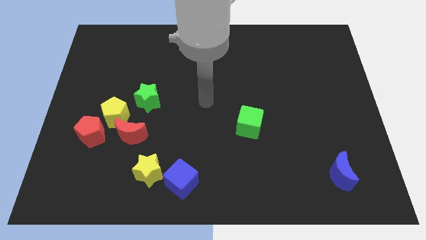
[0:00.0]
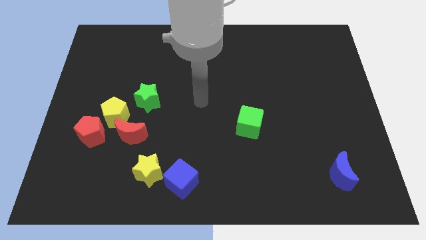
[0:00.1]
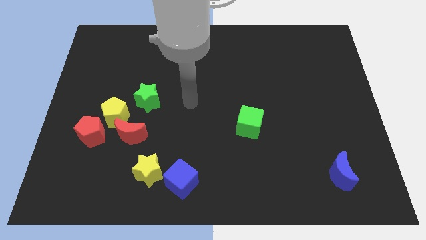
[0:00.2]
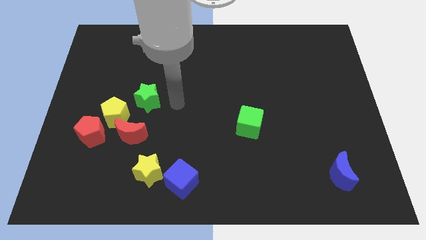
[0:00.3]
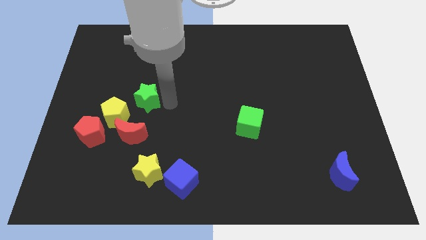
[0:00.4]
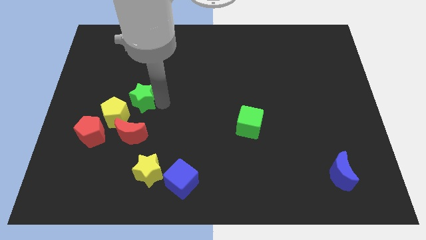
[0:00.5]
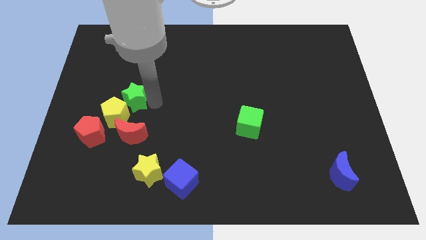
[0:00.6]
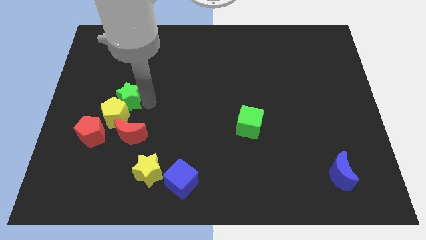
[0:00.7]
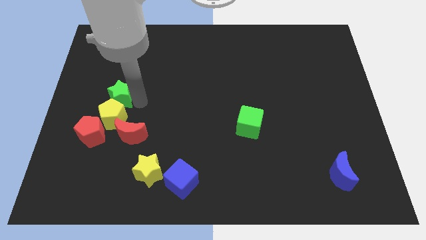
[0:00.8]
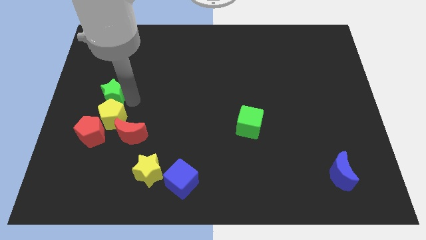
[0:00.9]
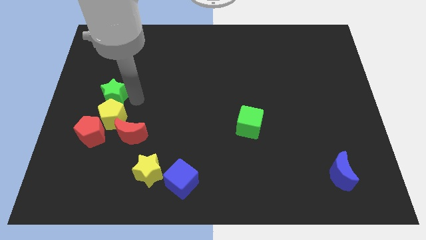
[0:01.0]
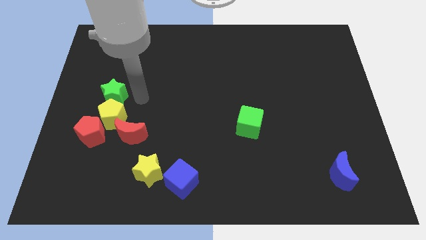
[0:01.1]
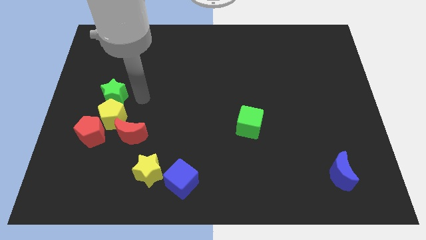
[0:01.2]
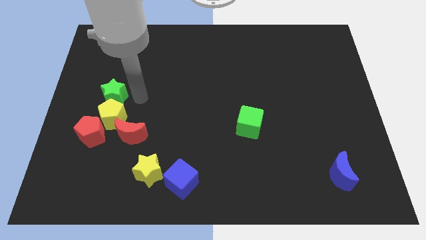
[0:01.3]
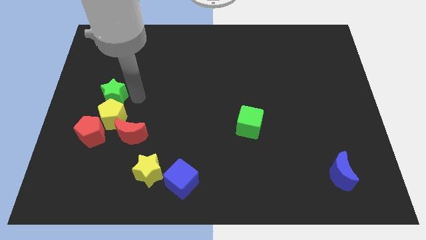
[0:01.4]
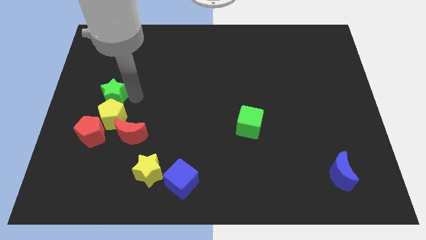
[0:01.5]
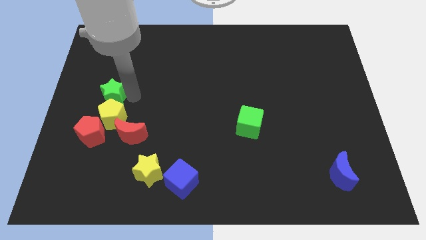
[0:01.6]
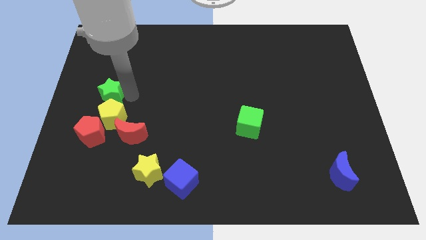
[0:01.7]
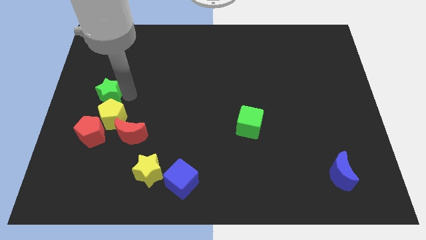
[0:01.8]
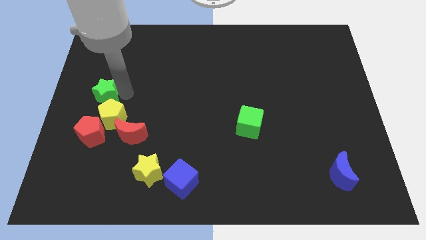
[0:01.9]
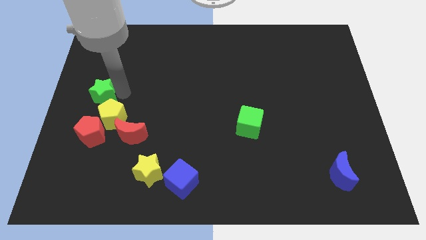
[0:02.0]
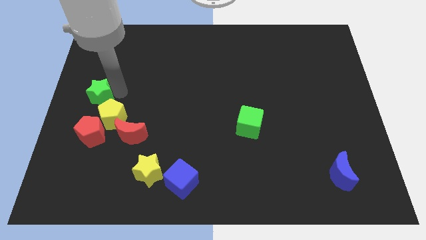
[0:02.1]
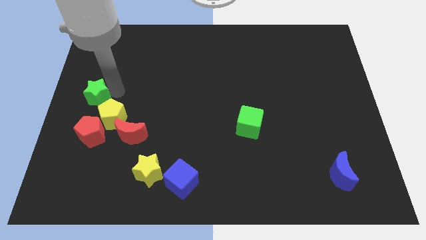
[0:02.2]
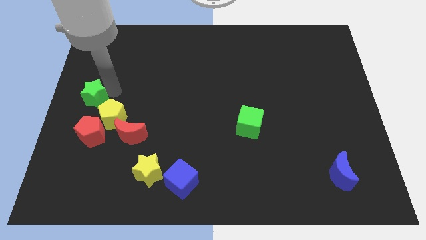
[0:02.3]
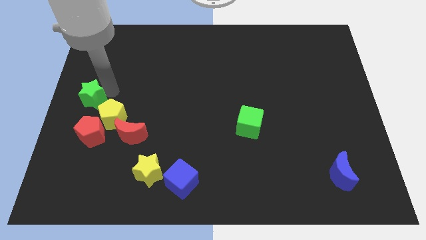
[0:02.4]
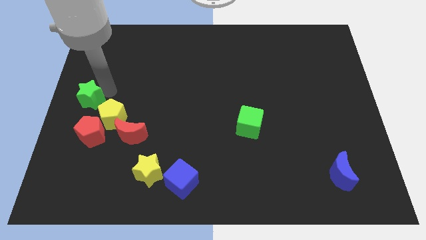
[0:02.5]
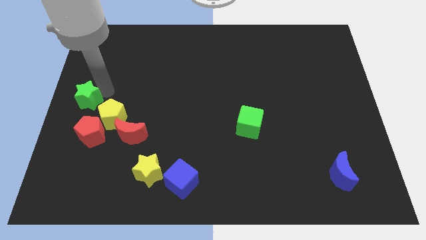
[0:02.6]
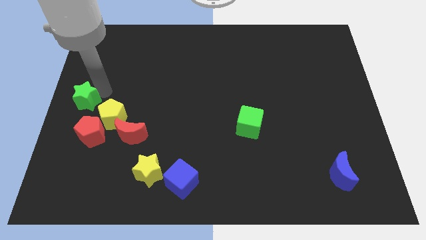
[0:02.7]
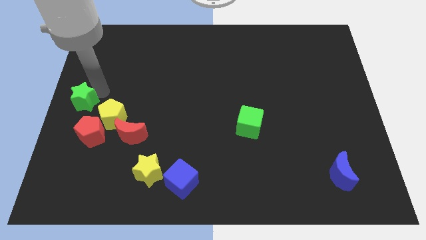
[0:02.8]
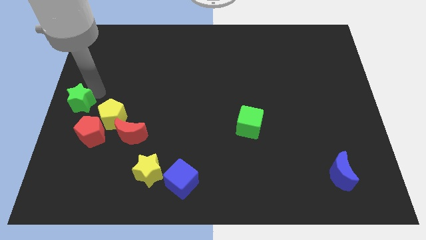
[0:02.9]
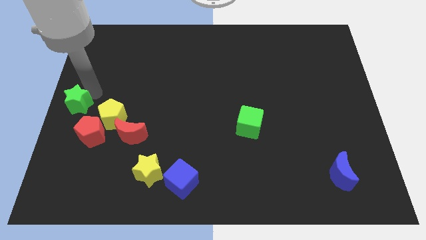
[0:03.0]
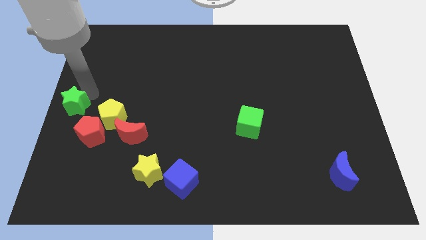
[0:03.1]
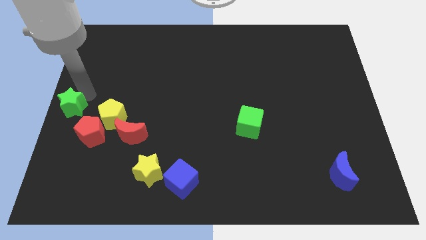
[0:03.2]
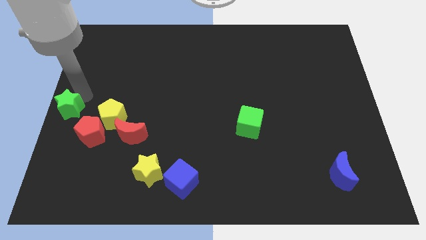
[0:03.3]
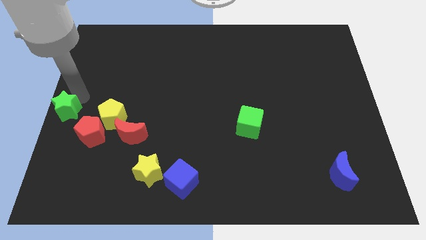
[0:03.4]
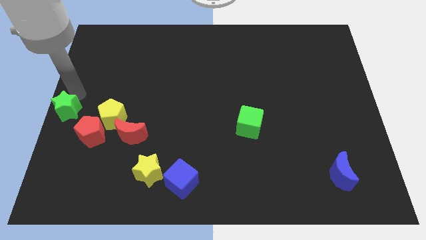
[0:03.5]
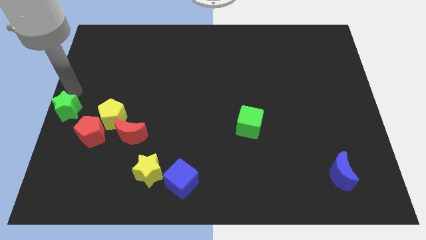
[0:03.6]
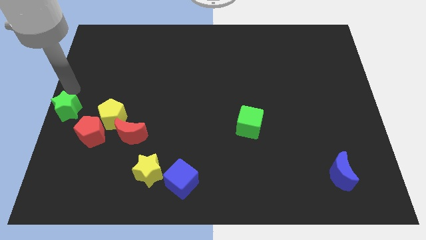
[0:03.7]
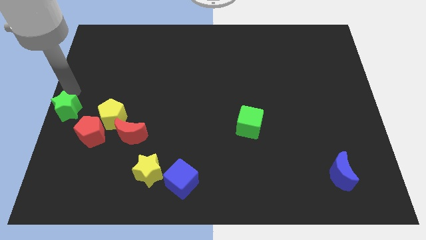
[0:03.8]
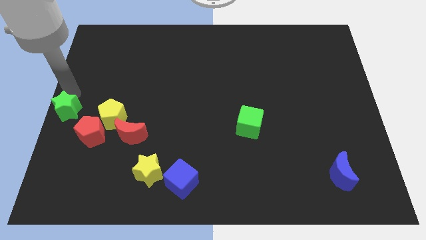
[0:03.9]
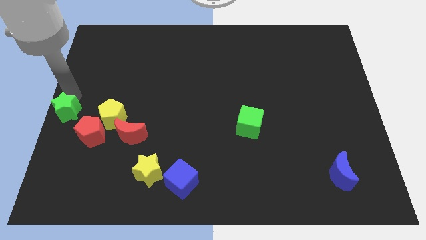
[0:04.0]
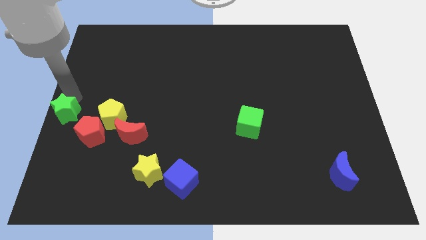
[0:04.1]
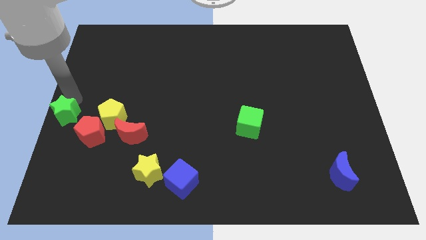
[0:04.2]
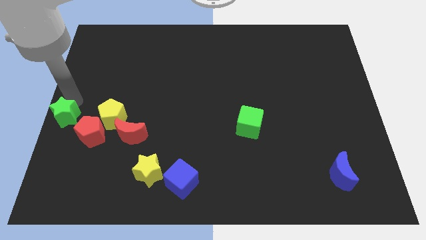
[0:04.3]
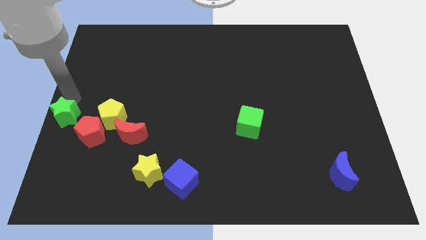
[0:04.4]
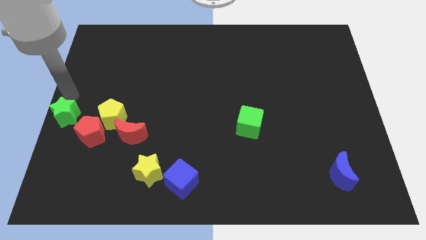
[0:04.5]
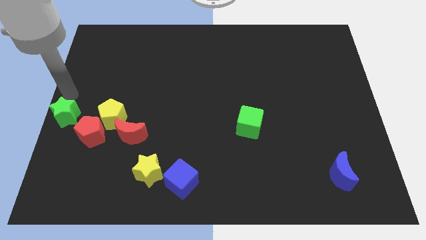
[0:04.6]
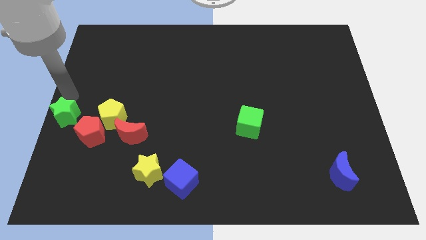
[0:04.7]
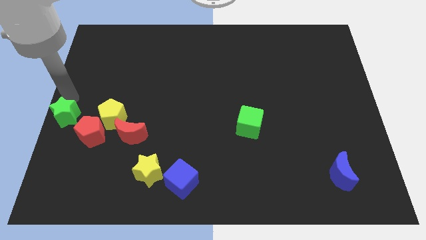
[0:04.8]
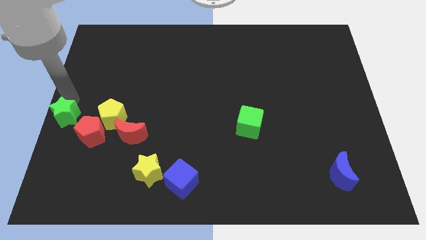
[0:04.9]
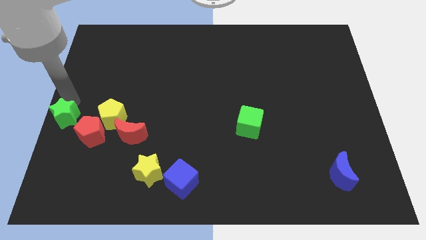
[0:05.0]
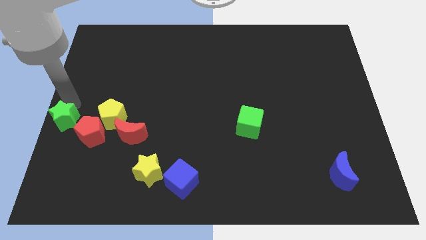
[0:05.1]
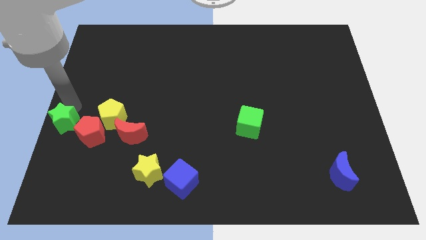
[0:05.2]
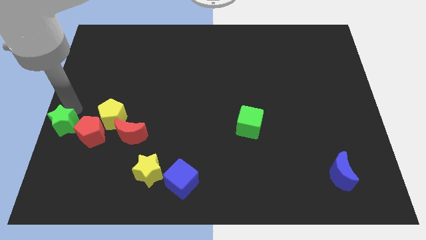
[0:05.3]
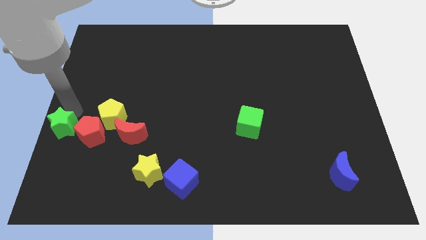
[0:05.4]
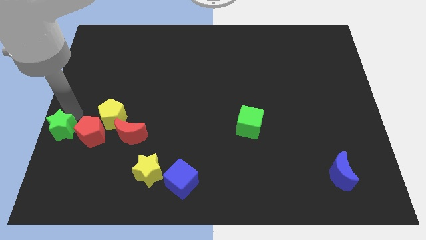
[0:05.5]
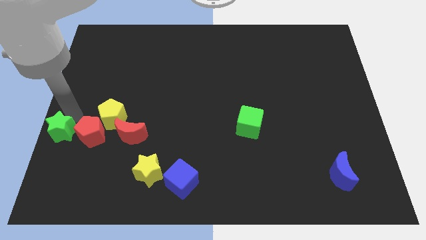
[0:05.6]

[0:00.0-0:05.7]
slide the green star to the bottom left of the yellow pentagon

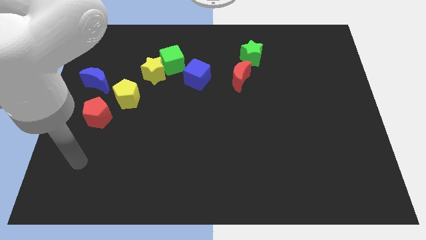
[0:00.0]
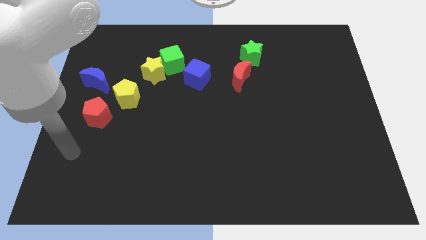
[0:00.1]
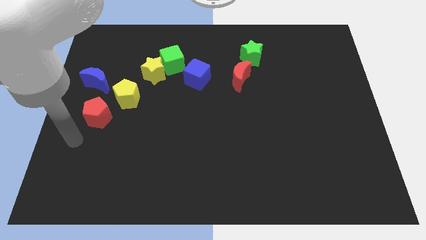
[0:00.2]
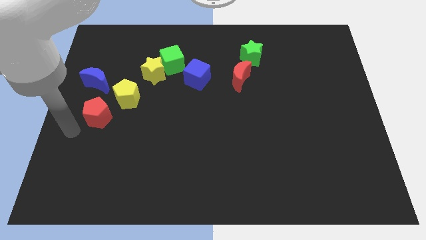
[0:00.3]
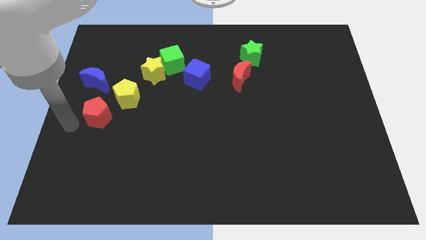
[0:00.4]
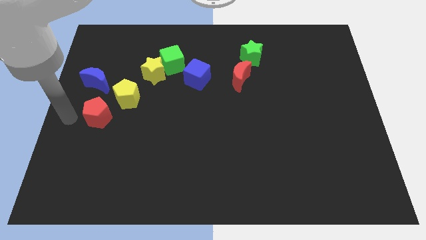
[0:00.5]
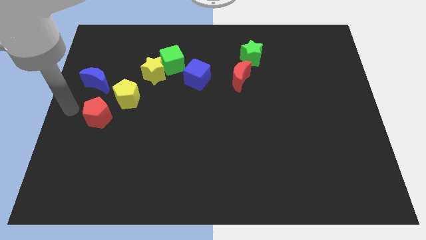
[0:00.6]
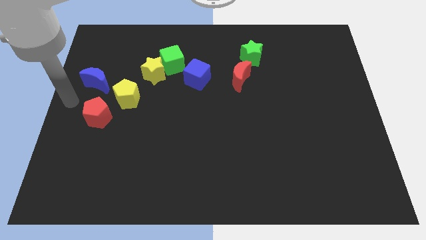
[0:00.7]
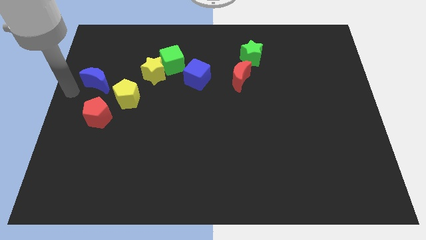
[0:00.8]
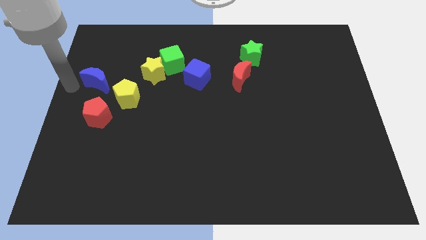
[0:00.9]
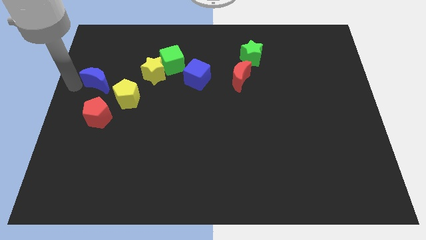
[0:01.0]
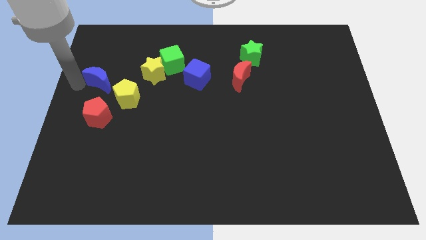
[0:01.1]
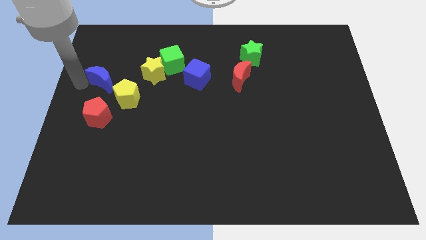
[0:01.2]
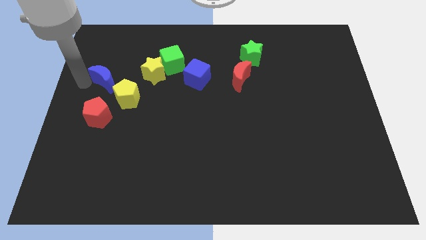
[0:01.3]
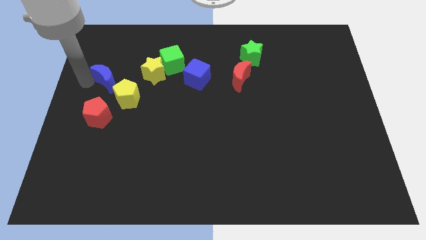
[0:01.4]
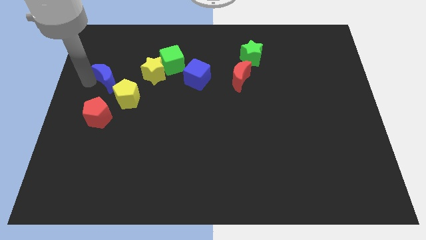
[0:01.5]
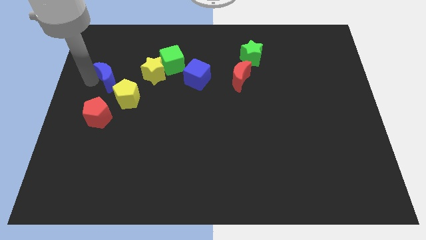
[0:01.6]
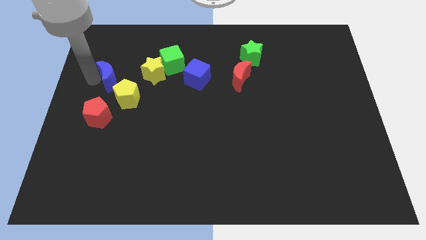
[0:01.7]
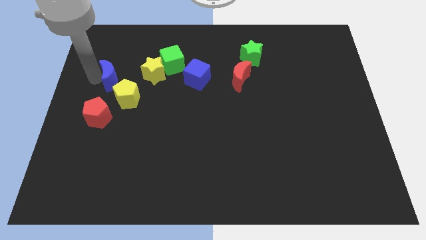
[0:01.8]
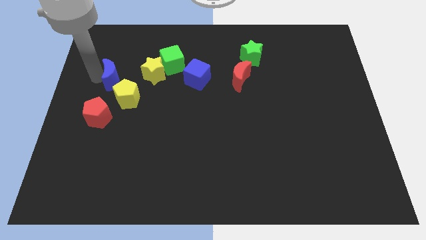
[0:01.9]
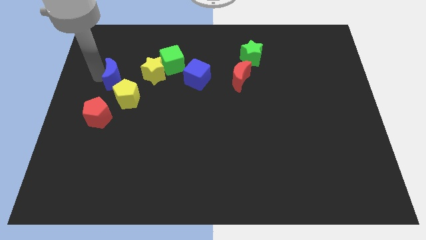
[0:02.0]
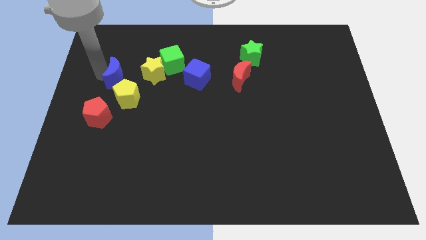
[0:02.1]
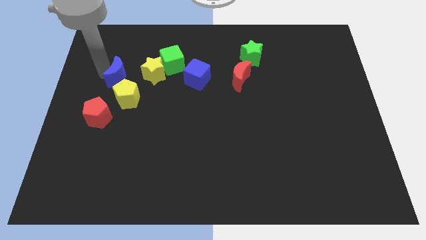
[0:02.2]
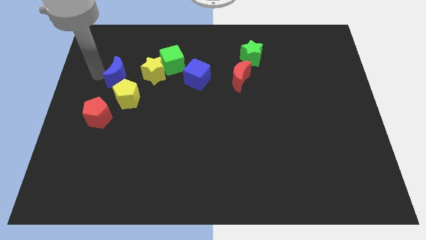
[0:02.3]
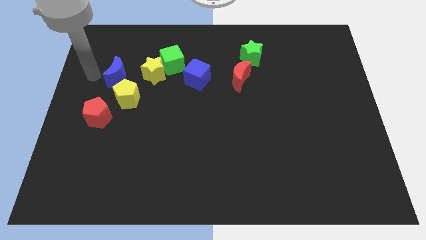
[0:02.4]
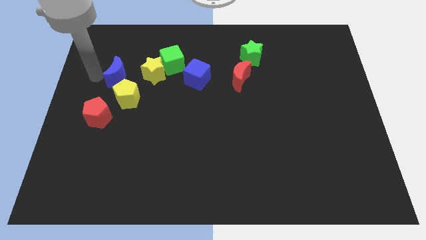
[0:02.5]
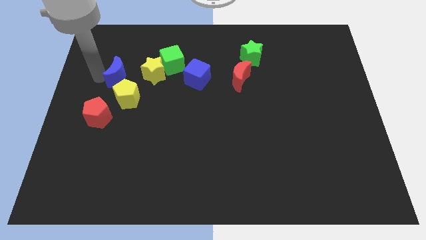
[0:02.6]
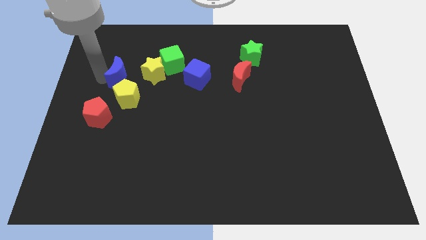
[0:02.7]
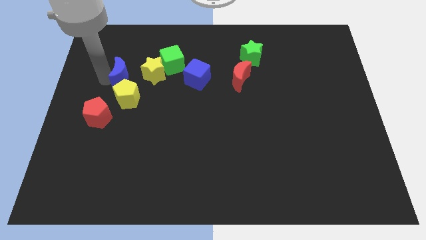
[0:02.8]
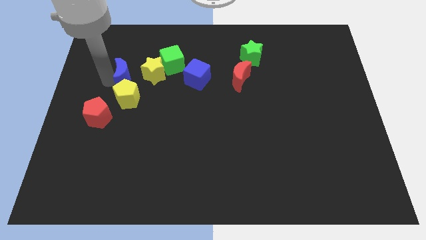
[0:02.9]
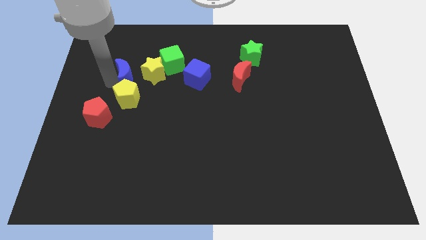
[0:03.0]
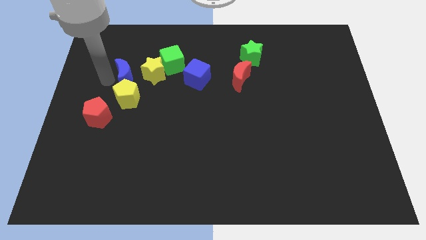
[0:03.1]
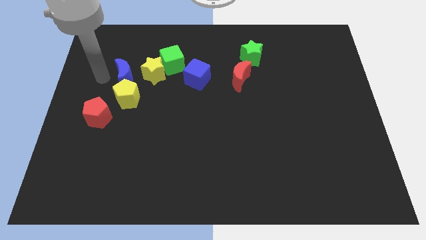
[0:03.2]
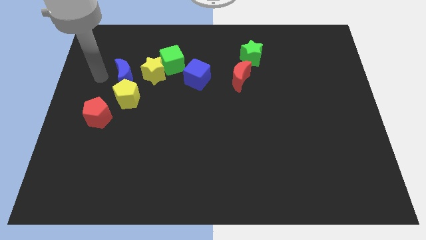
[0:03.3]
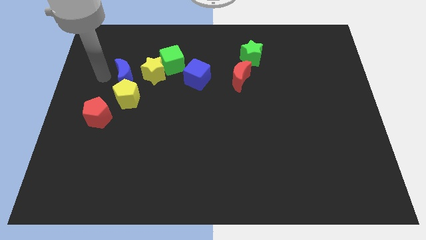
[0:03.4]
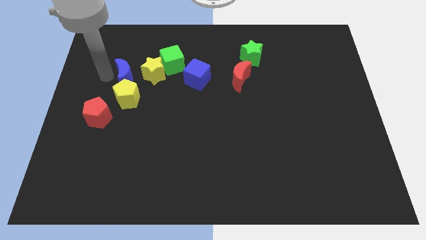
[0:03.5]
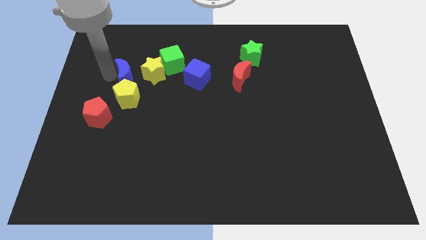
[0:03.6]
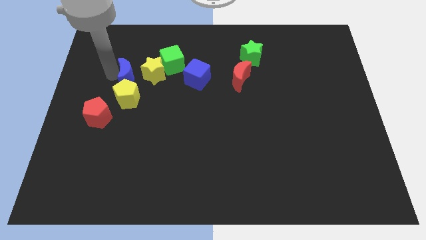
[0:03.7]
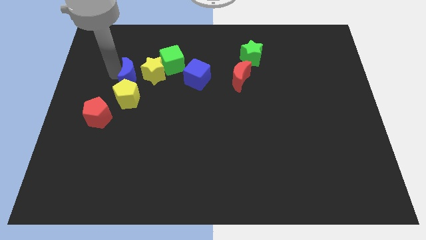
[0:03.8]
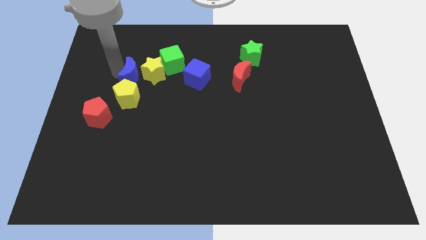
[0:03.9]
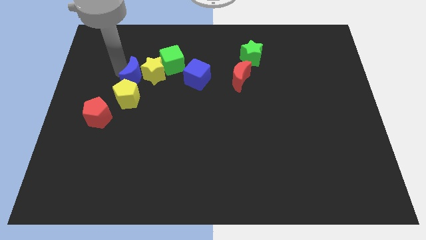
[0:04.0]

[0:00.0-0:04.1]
put the blue moon to the left of the blue cube
